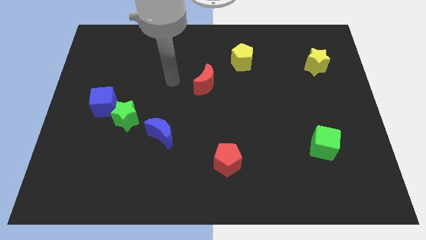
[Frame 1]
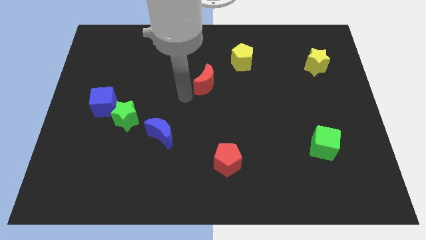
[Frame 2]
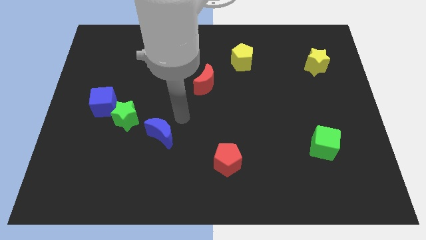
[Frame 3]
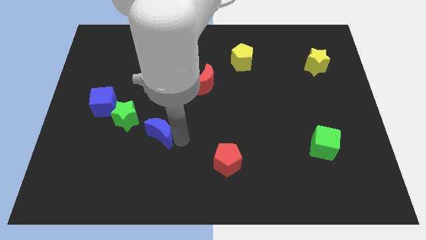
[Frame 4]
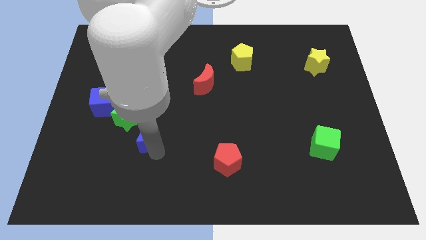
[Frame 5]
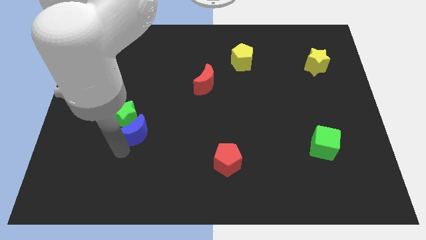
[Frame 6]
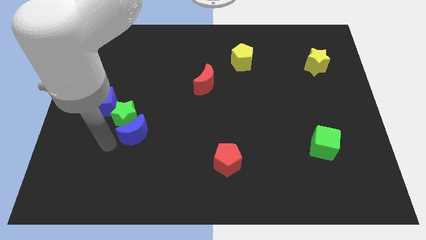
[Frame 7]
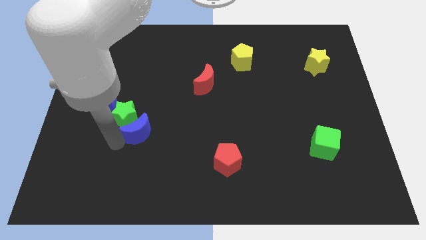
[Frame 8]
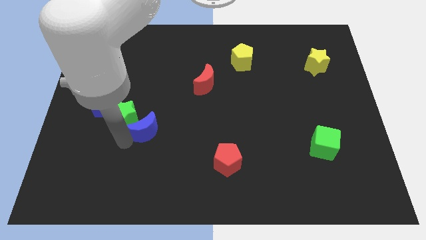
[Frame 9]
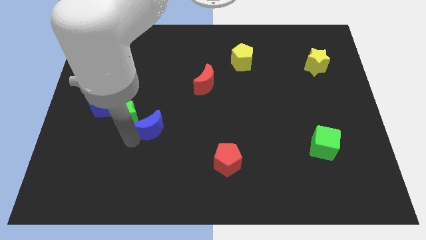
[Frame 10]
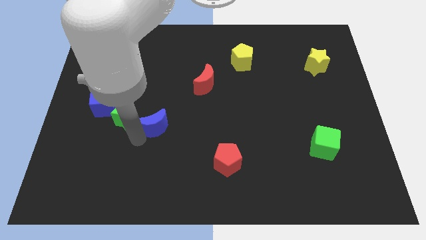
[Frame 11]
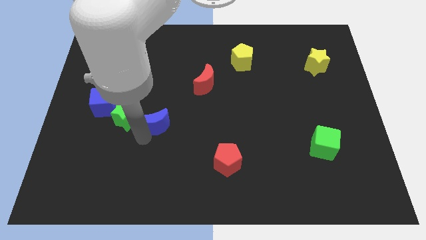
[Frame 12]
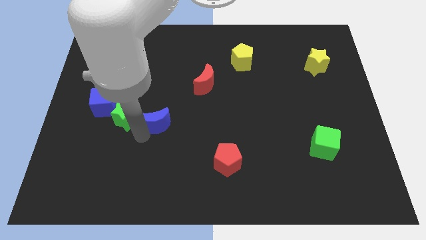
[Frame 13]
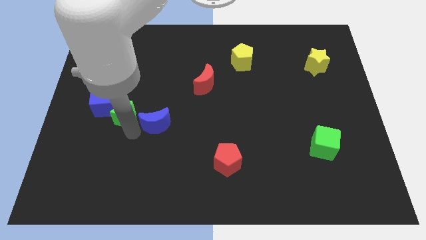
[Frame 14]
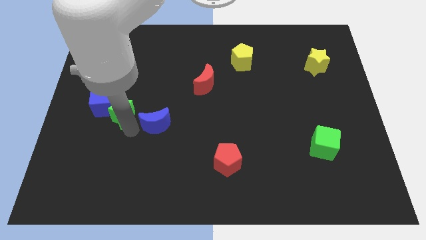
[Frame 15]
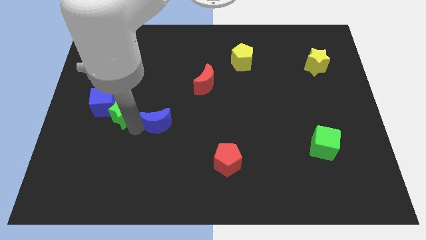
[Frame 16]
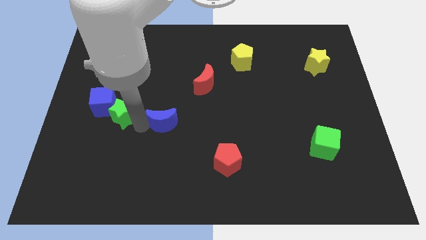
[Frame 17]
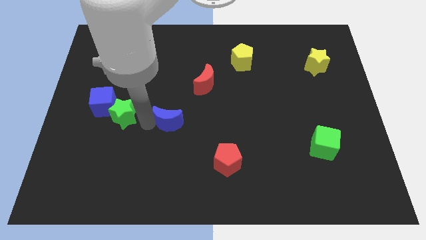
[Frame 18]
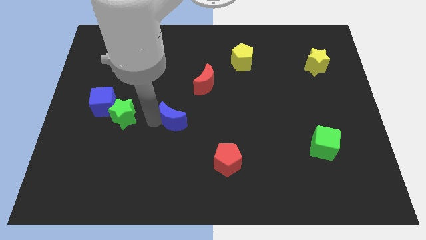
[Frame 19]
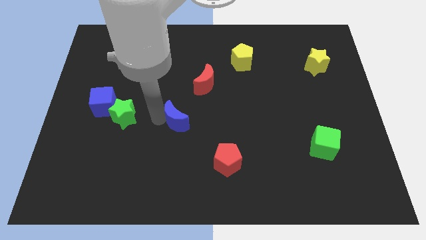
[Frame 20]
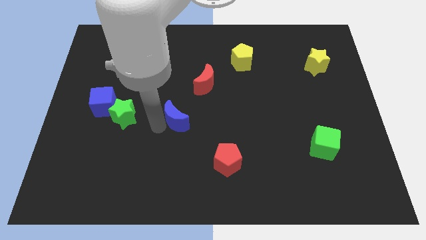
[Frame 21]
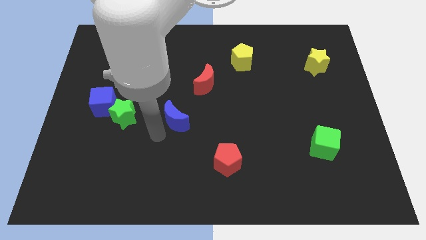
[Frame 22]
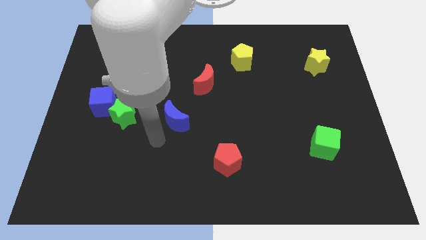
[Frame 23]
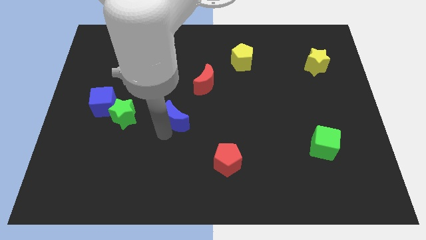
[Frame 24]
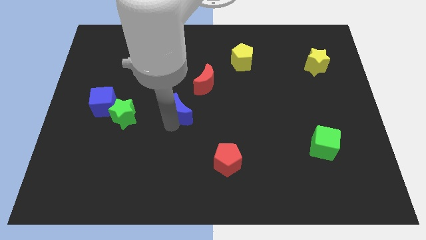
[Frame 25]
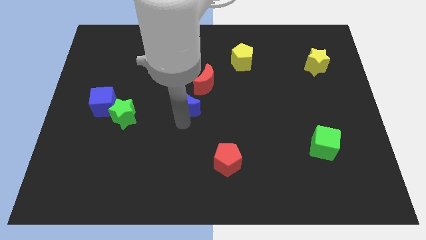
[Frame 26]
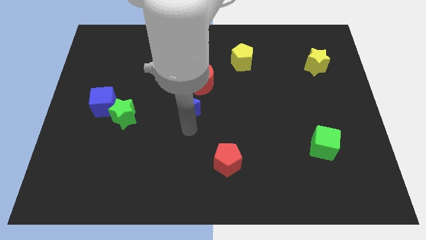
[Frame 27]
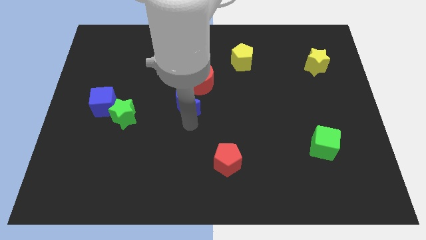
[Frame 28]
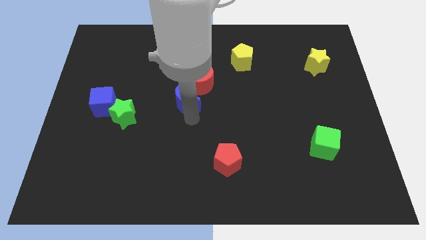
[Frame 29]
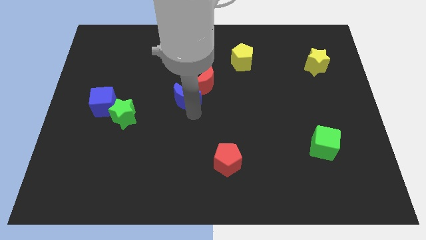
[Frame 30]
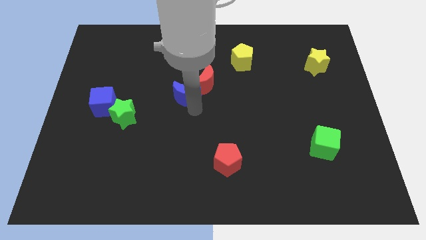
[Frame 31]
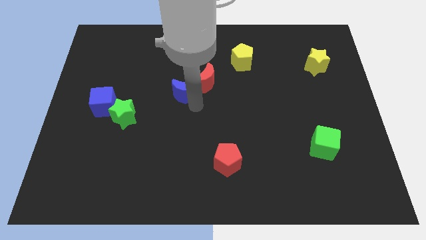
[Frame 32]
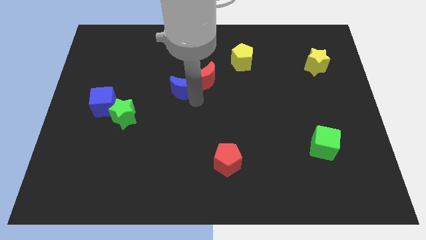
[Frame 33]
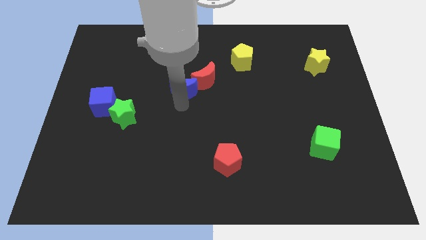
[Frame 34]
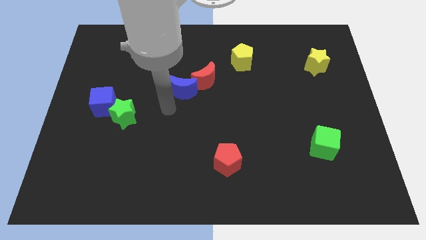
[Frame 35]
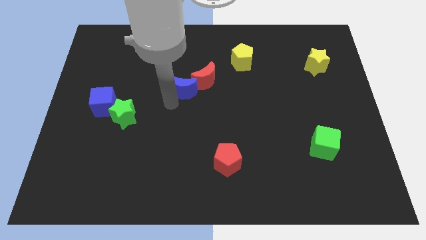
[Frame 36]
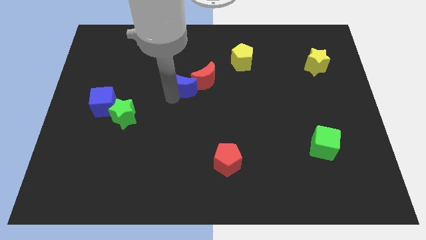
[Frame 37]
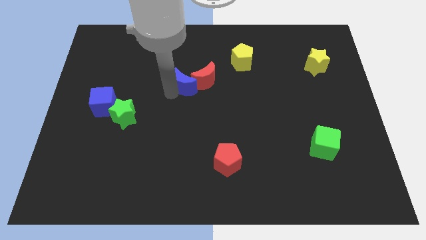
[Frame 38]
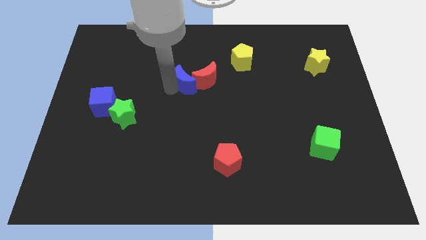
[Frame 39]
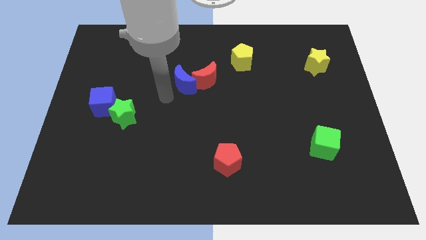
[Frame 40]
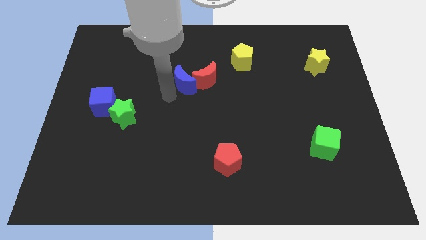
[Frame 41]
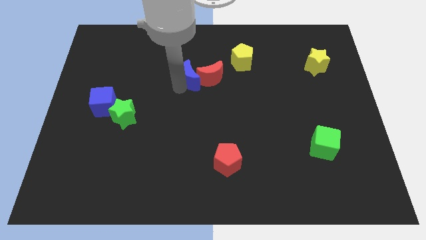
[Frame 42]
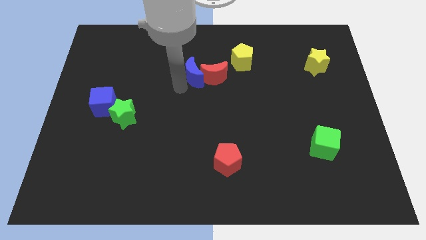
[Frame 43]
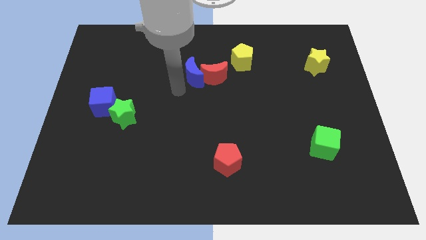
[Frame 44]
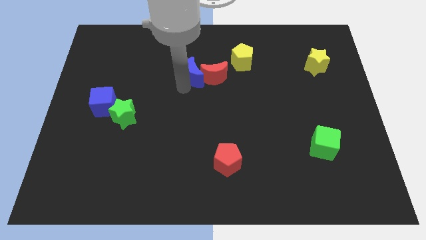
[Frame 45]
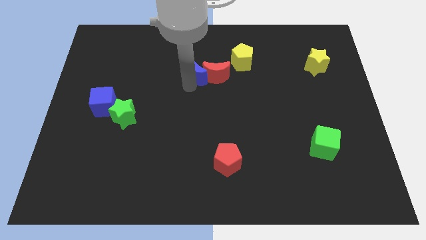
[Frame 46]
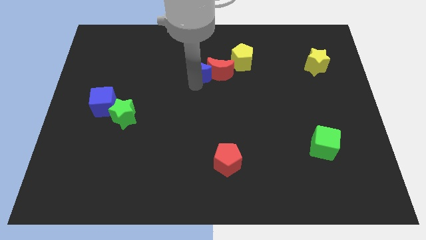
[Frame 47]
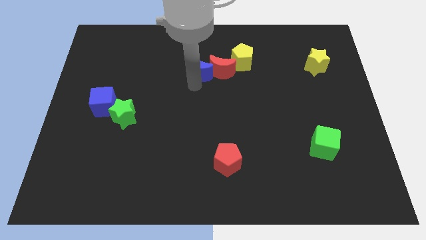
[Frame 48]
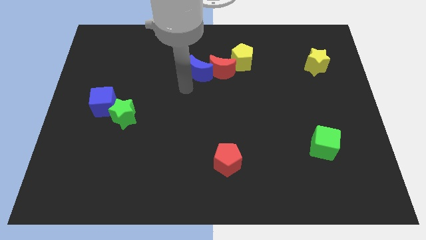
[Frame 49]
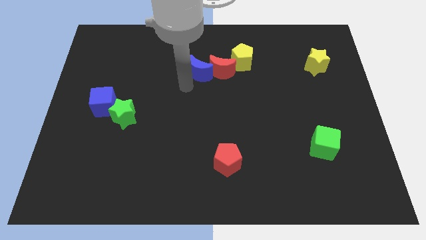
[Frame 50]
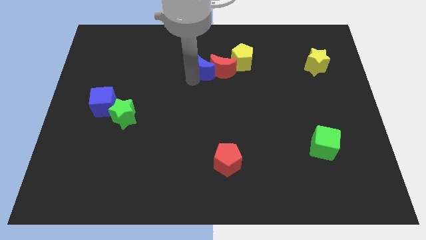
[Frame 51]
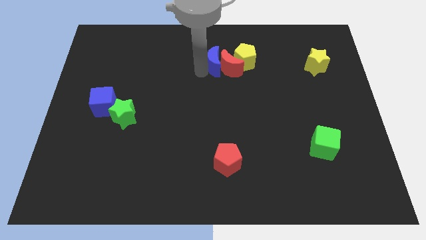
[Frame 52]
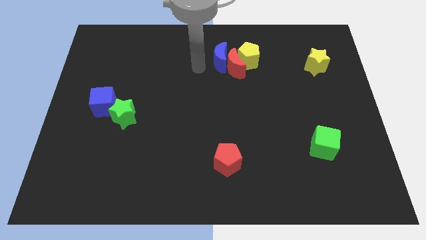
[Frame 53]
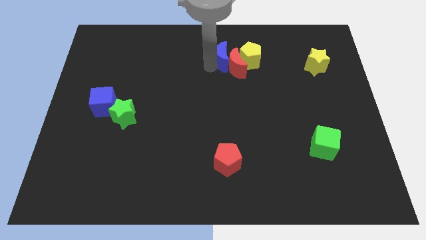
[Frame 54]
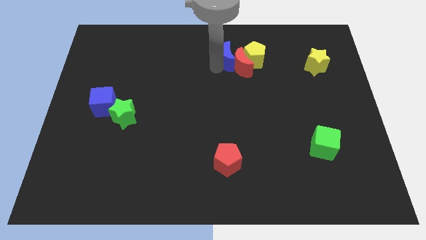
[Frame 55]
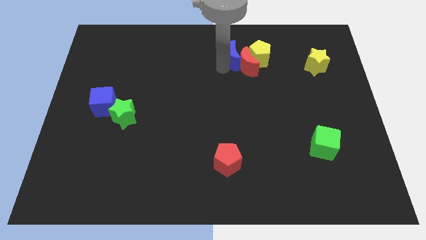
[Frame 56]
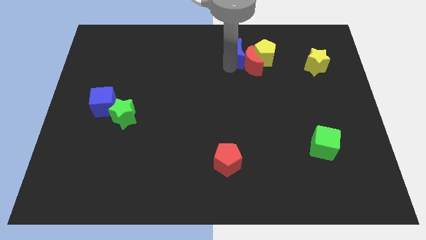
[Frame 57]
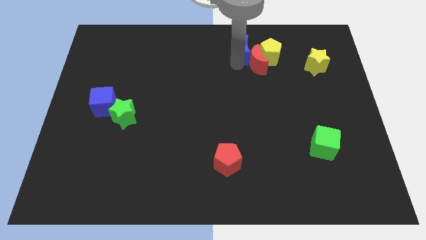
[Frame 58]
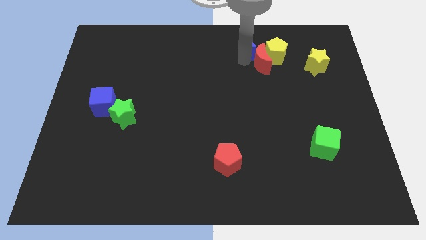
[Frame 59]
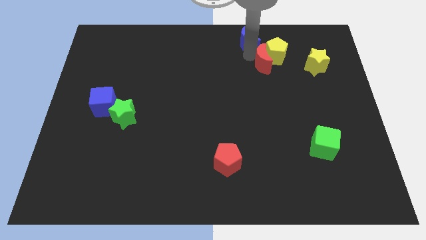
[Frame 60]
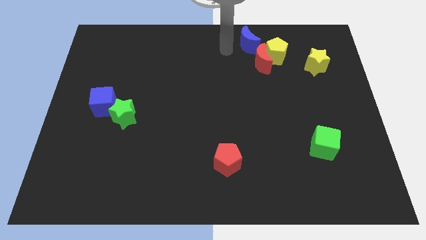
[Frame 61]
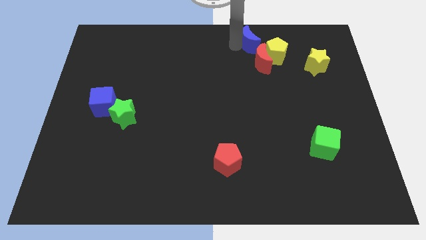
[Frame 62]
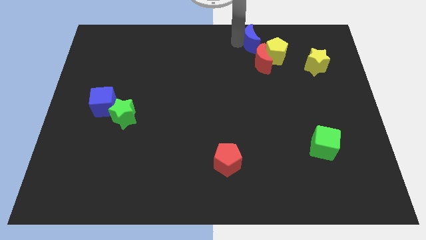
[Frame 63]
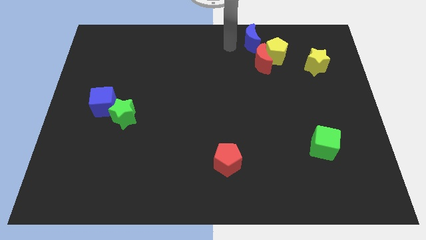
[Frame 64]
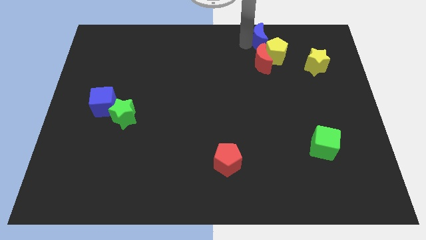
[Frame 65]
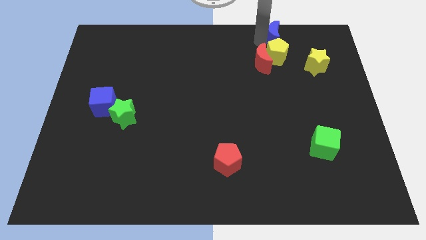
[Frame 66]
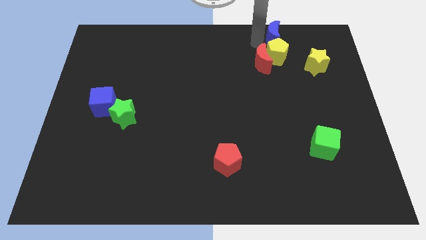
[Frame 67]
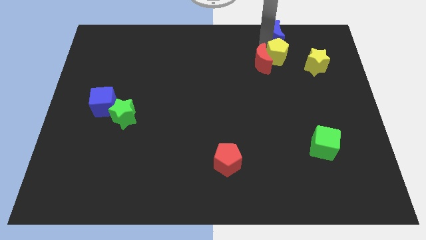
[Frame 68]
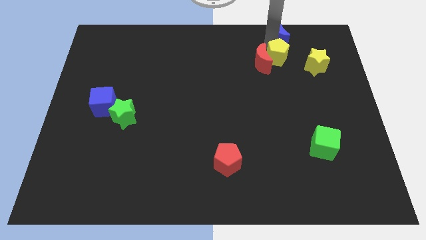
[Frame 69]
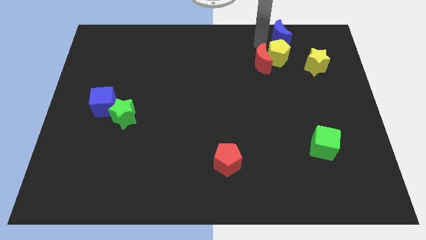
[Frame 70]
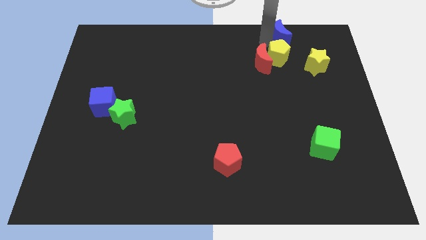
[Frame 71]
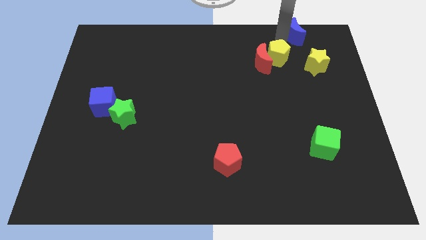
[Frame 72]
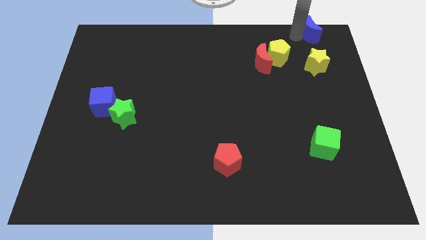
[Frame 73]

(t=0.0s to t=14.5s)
put the blue moon to the top right of the board
